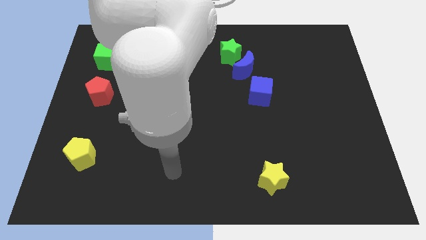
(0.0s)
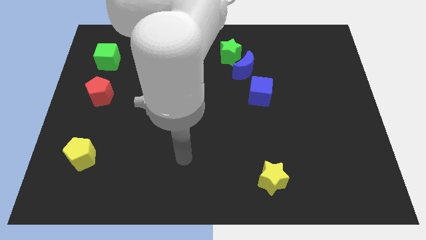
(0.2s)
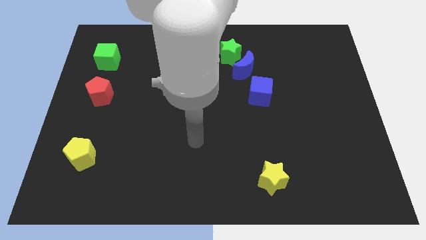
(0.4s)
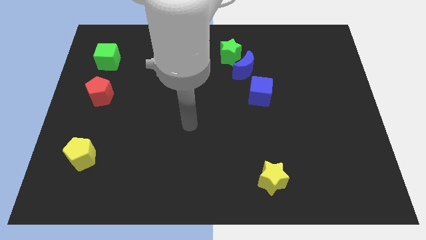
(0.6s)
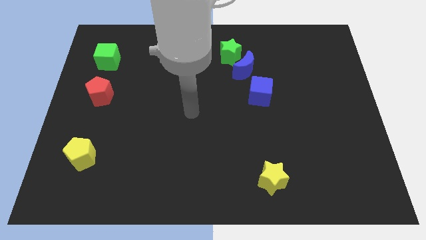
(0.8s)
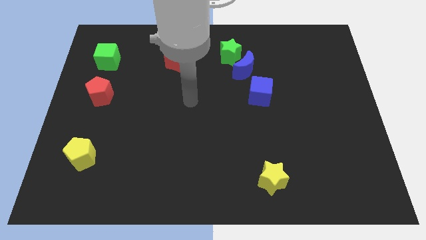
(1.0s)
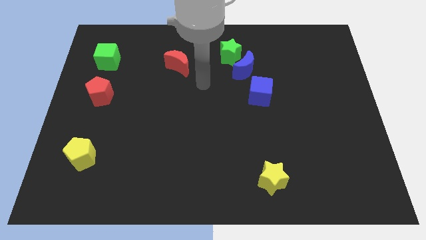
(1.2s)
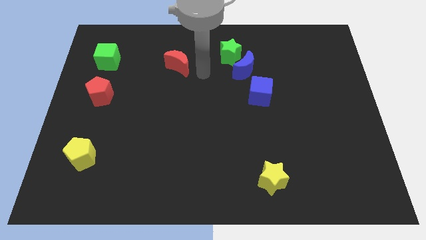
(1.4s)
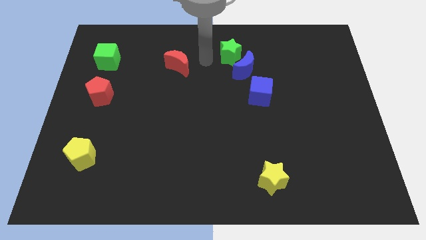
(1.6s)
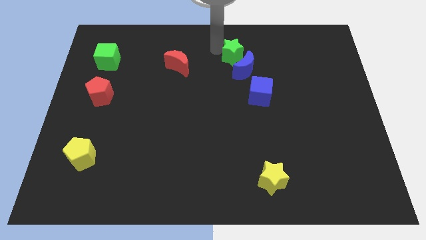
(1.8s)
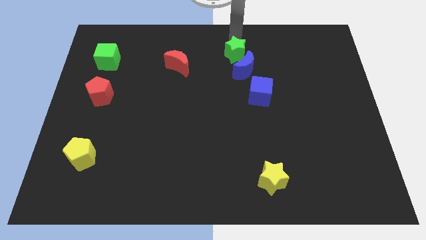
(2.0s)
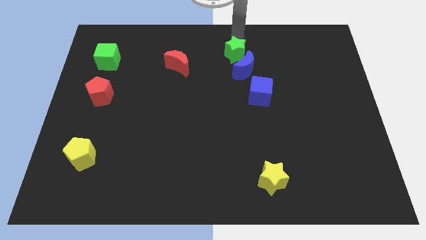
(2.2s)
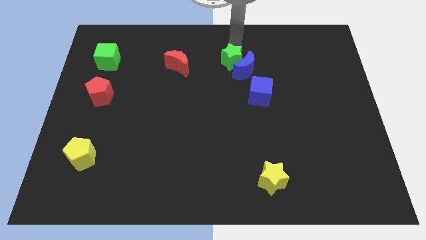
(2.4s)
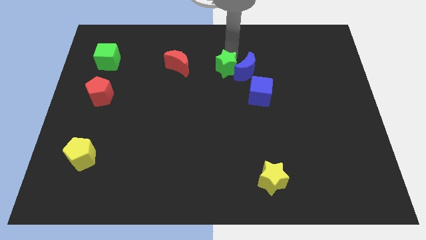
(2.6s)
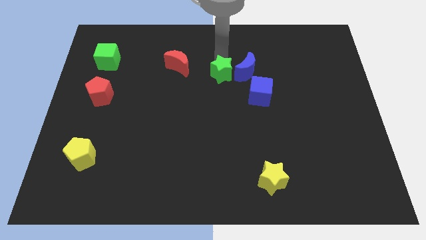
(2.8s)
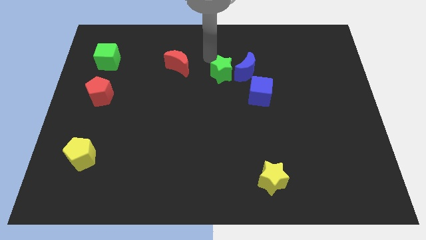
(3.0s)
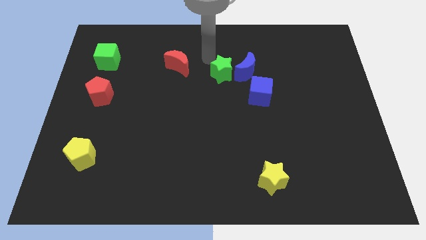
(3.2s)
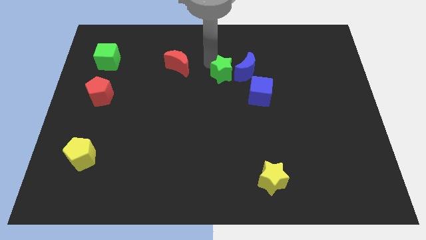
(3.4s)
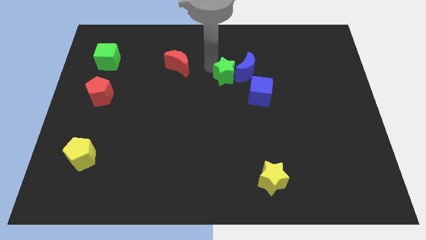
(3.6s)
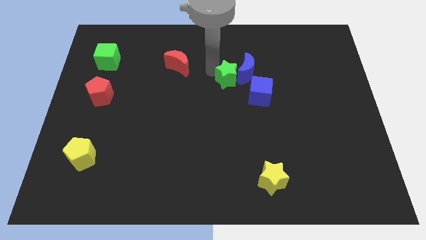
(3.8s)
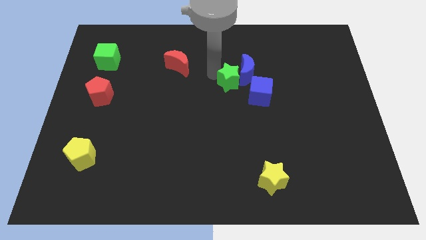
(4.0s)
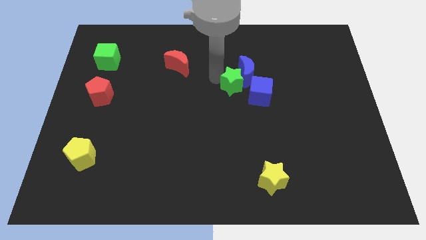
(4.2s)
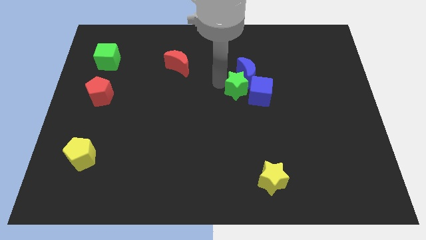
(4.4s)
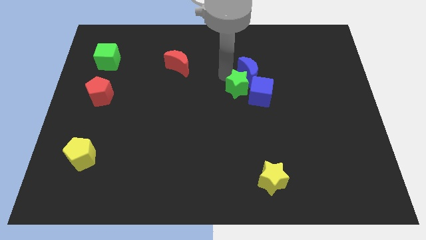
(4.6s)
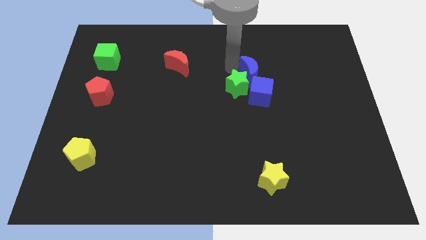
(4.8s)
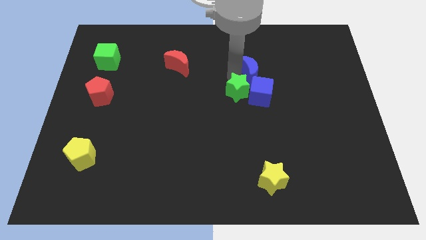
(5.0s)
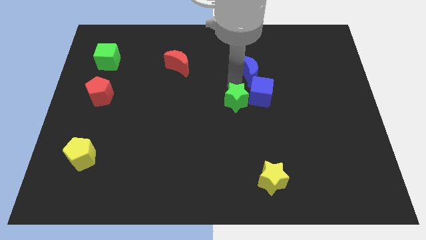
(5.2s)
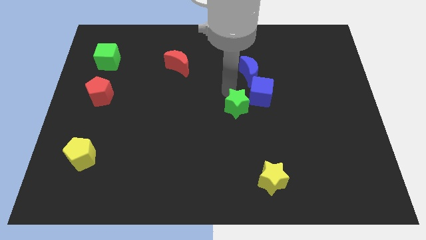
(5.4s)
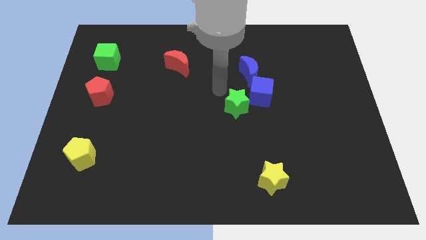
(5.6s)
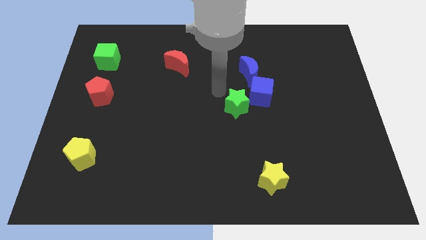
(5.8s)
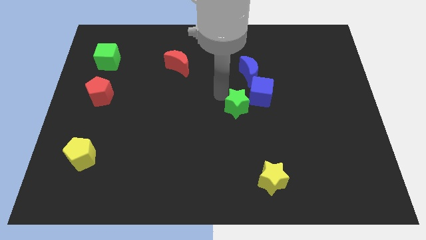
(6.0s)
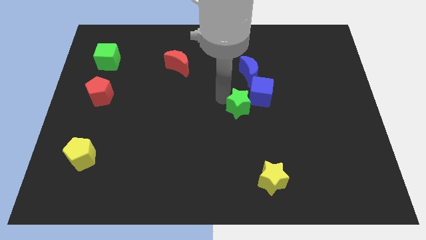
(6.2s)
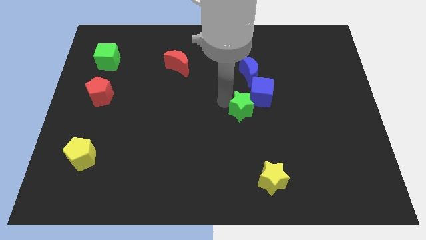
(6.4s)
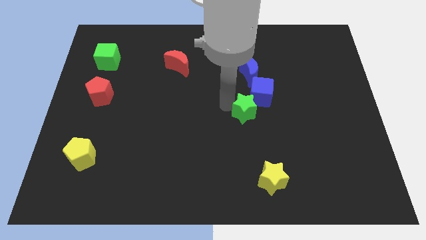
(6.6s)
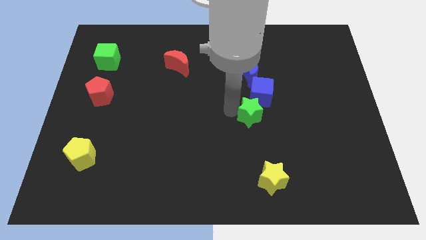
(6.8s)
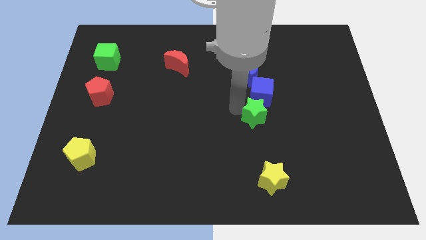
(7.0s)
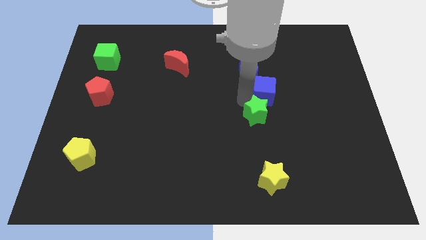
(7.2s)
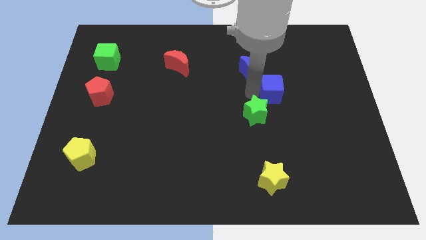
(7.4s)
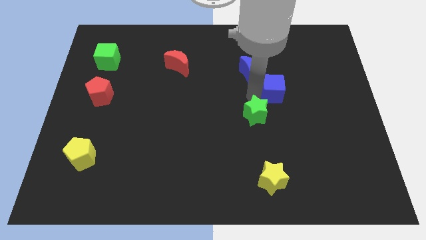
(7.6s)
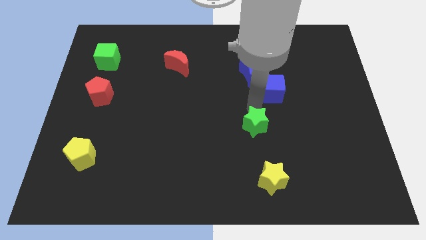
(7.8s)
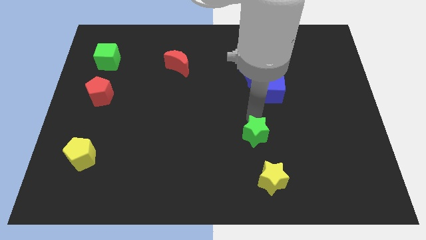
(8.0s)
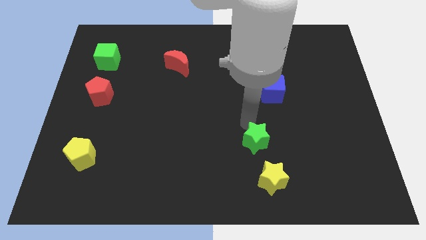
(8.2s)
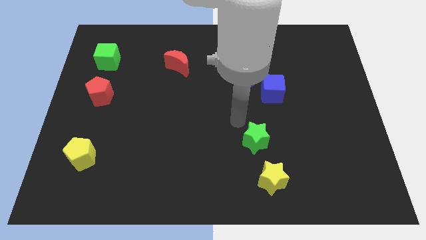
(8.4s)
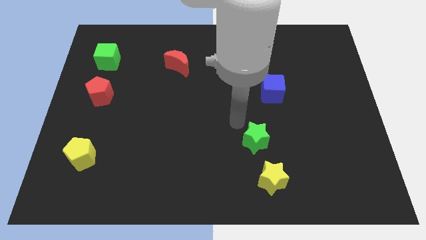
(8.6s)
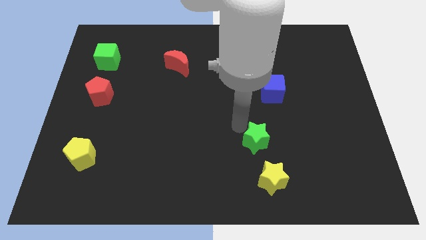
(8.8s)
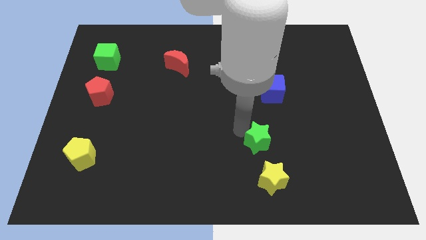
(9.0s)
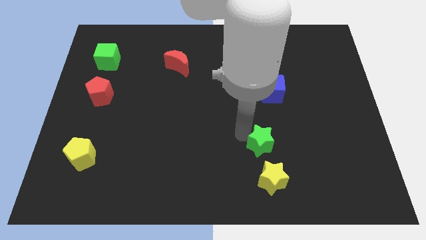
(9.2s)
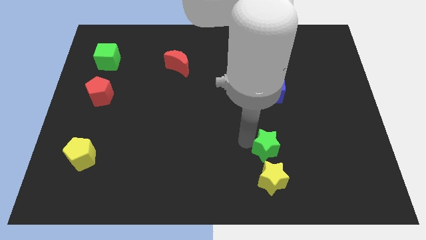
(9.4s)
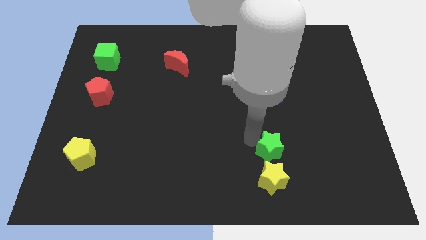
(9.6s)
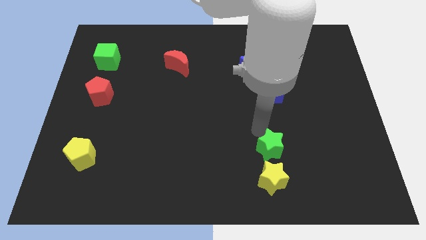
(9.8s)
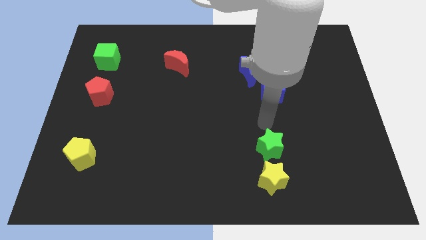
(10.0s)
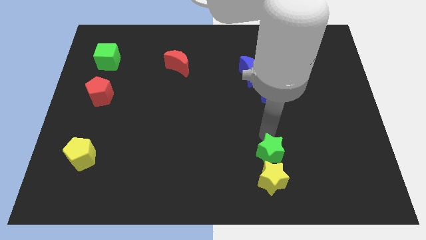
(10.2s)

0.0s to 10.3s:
move the green star next to the yellow star

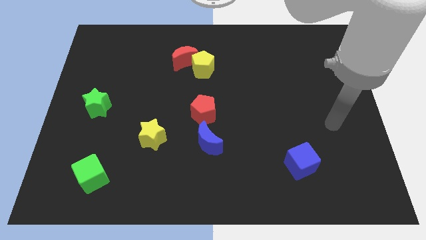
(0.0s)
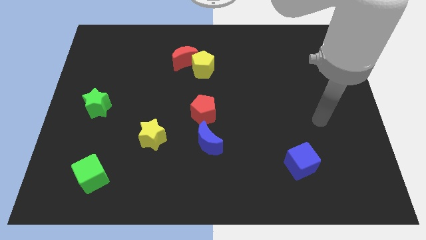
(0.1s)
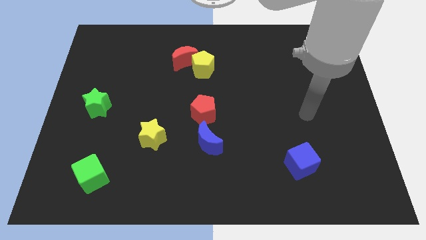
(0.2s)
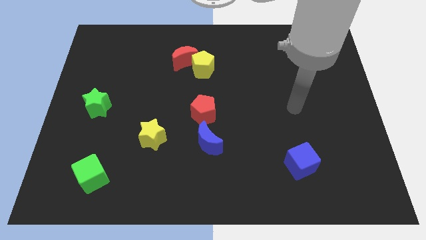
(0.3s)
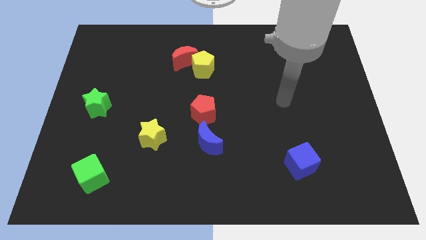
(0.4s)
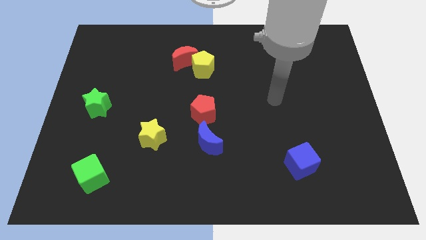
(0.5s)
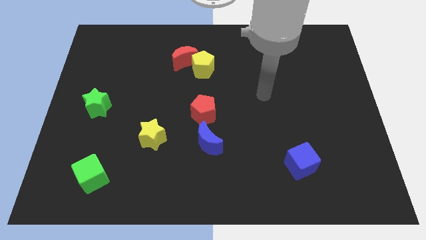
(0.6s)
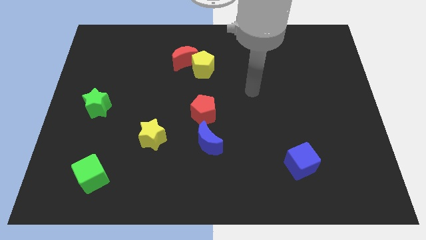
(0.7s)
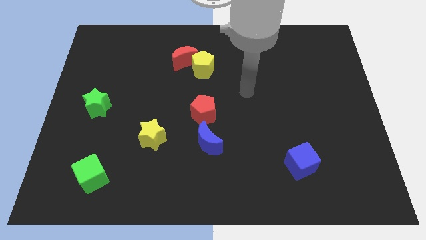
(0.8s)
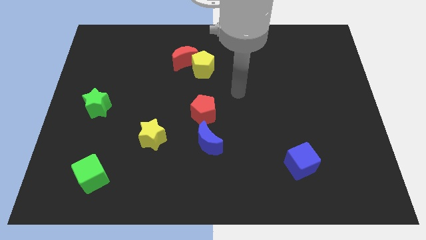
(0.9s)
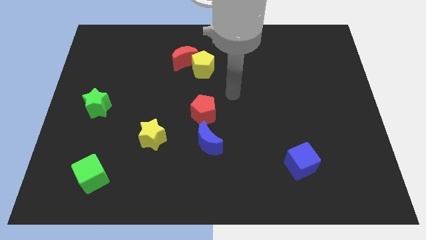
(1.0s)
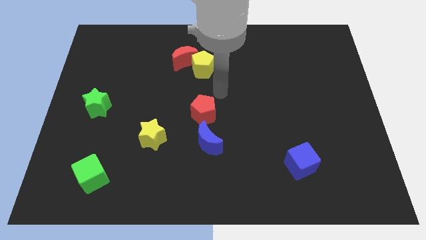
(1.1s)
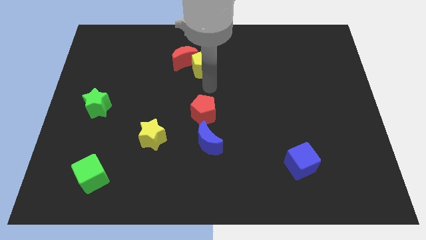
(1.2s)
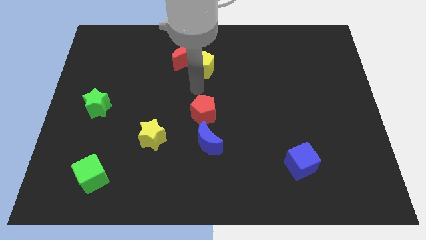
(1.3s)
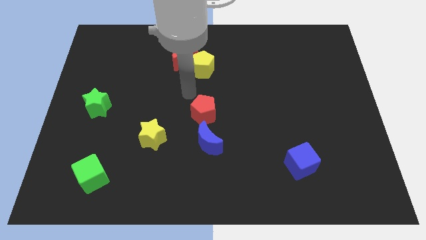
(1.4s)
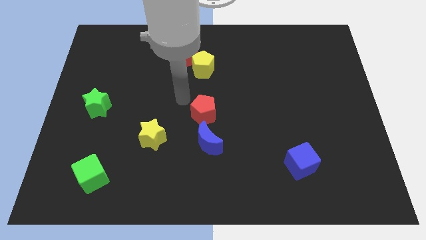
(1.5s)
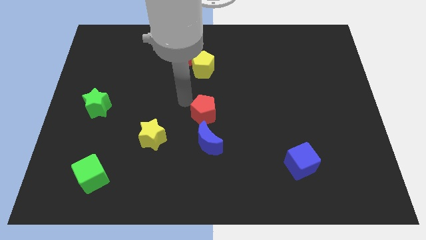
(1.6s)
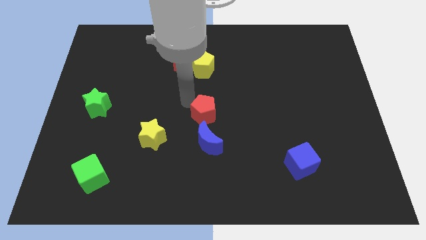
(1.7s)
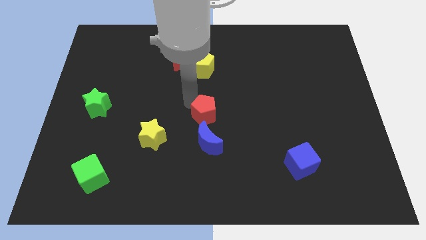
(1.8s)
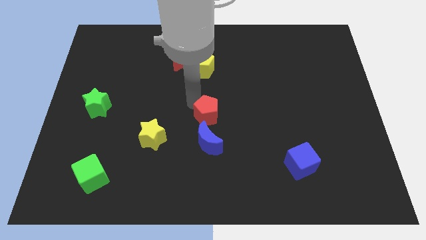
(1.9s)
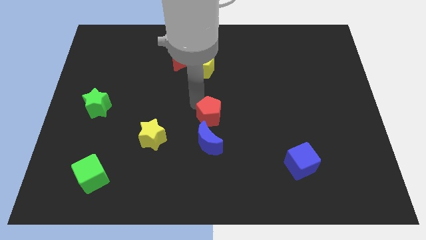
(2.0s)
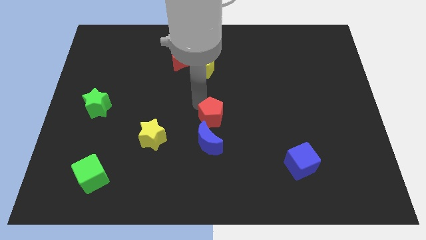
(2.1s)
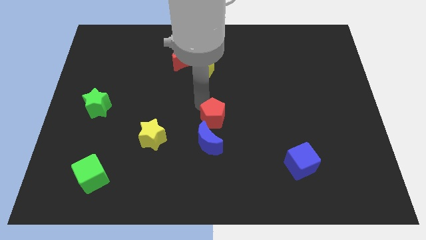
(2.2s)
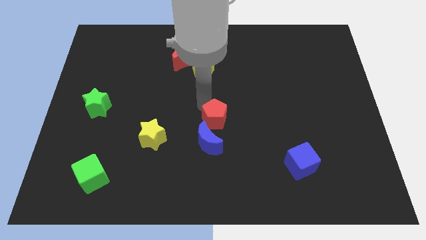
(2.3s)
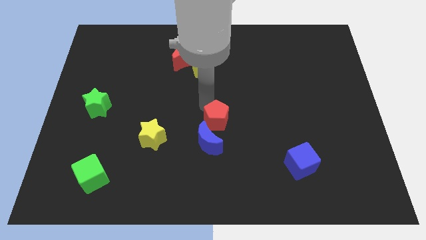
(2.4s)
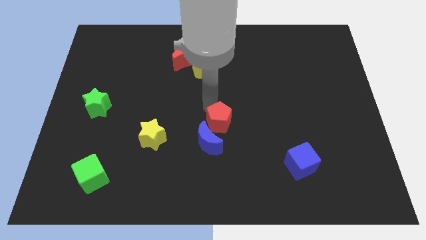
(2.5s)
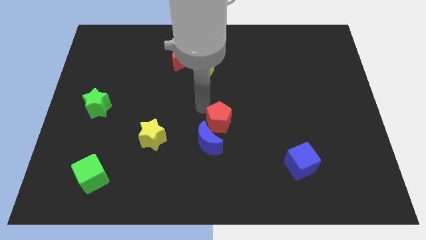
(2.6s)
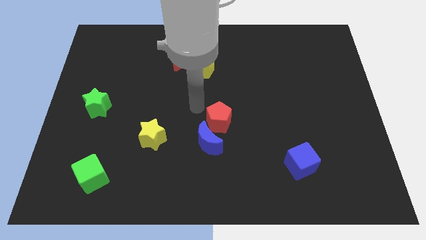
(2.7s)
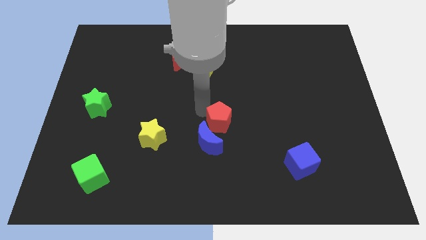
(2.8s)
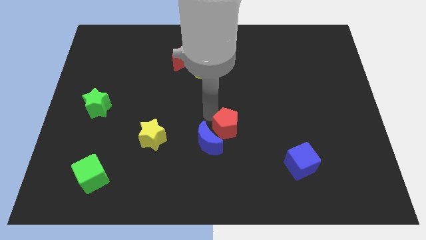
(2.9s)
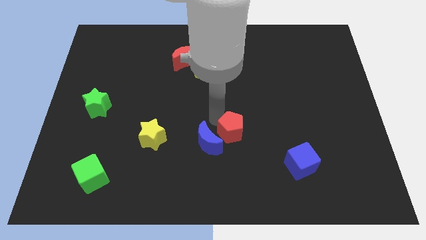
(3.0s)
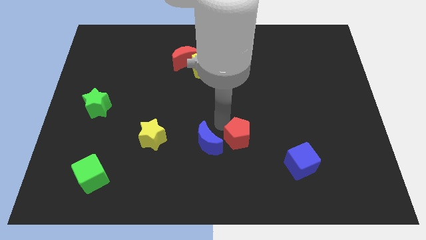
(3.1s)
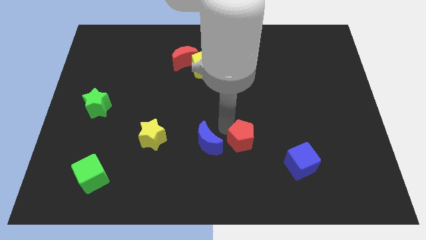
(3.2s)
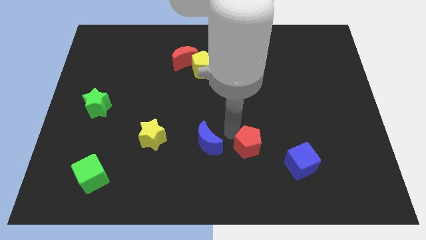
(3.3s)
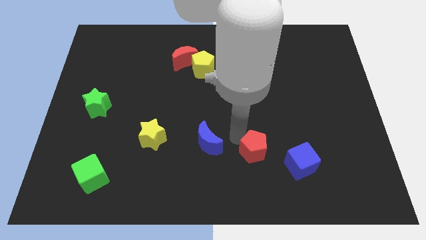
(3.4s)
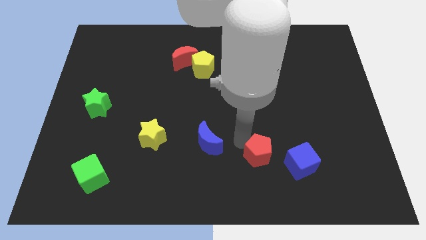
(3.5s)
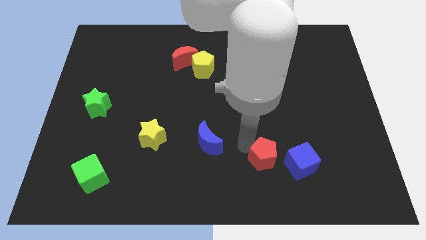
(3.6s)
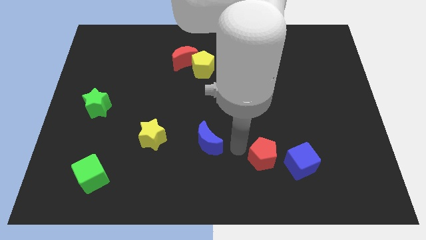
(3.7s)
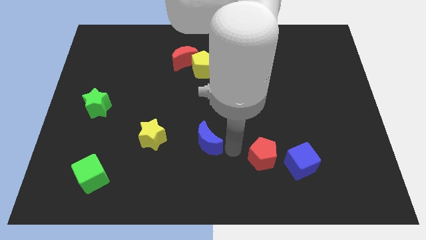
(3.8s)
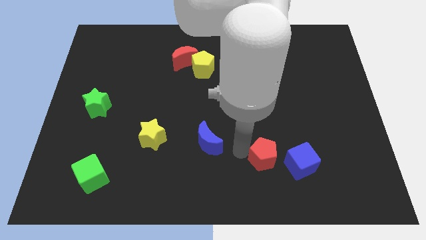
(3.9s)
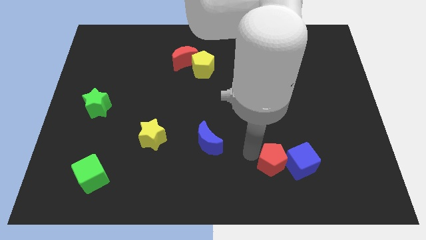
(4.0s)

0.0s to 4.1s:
slide the red pentagon next to the blue cube
